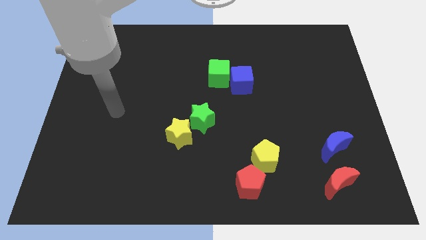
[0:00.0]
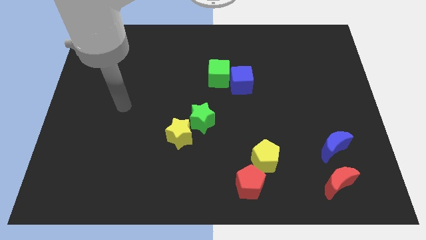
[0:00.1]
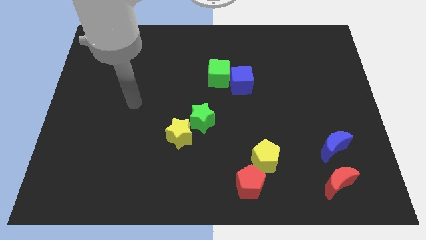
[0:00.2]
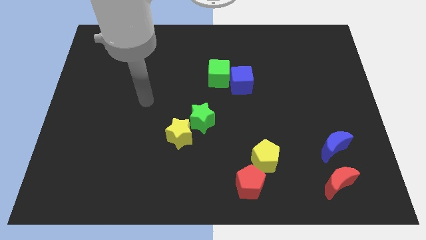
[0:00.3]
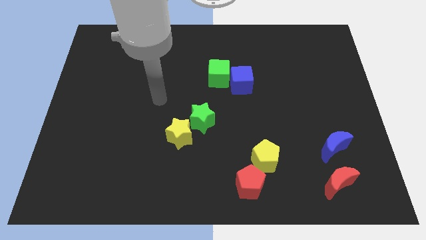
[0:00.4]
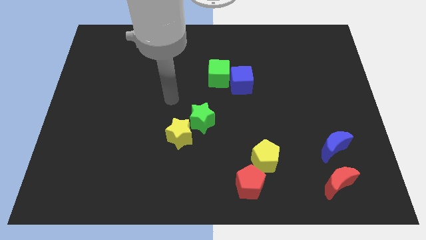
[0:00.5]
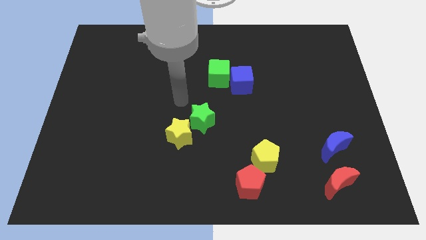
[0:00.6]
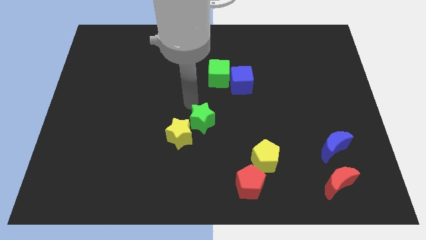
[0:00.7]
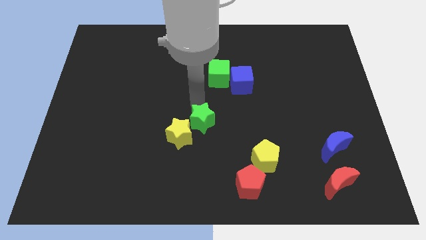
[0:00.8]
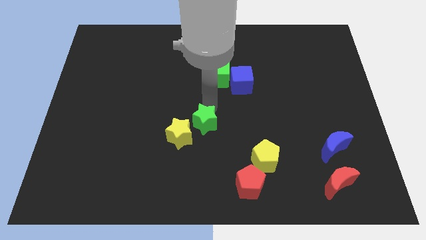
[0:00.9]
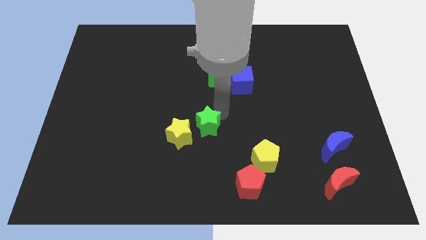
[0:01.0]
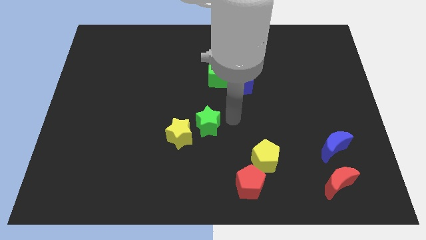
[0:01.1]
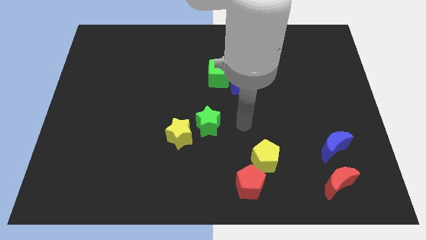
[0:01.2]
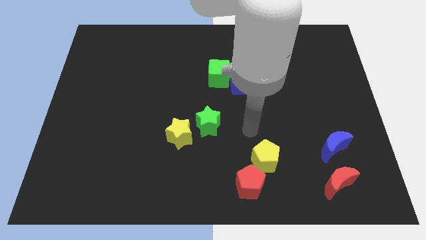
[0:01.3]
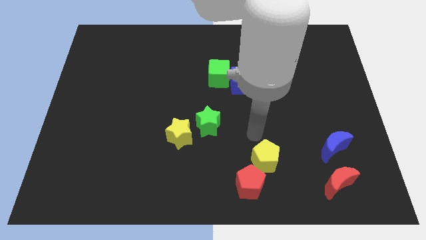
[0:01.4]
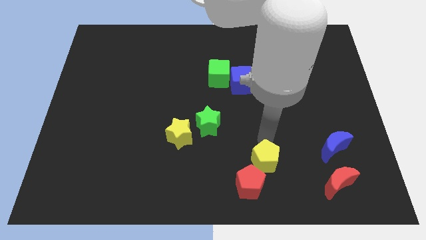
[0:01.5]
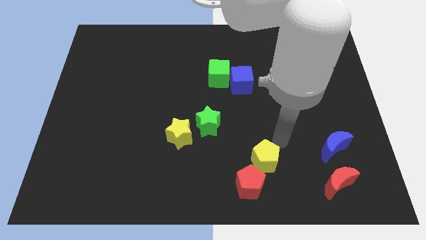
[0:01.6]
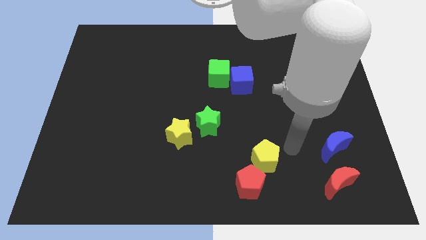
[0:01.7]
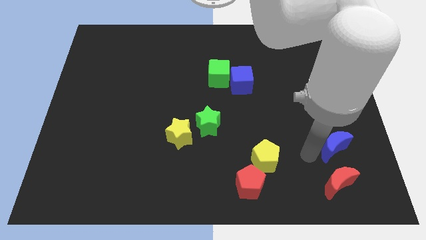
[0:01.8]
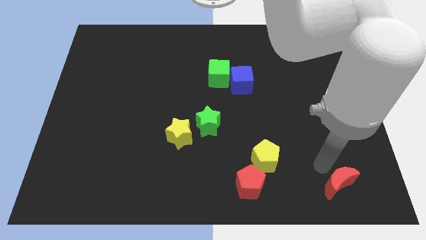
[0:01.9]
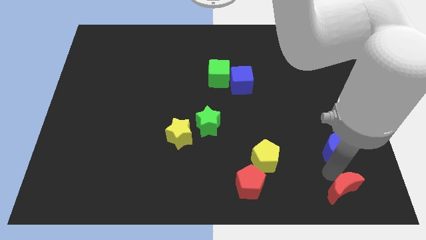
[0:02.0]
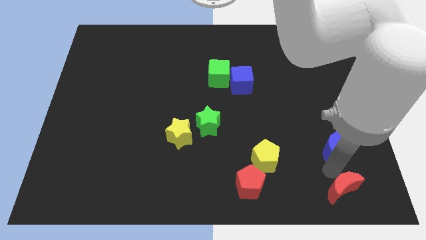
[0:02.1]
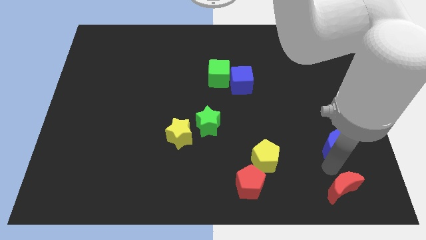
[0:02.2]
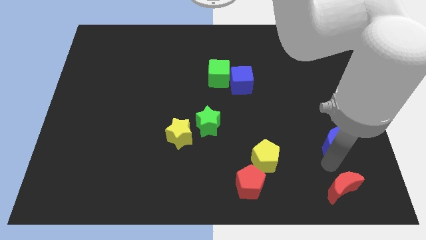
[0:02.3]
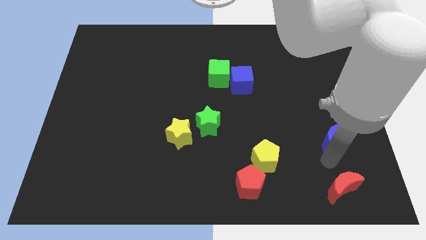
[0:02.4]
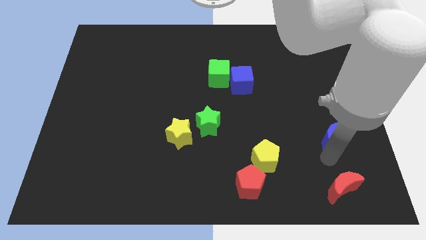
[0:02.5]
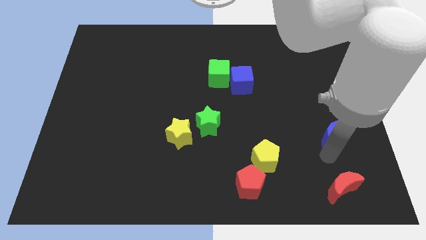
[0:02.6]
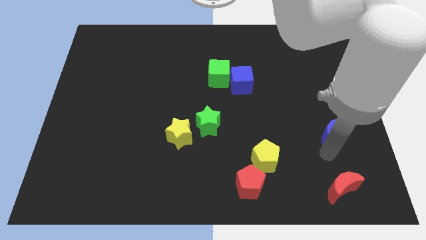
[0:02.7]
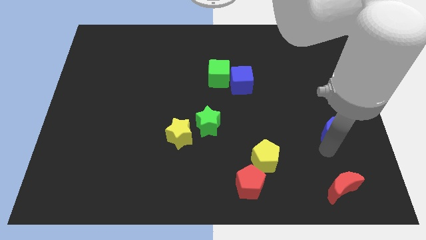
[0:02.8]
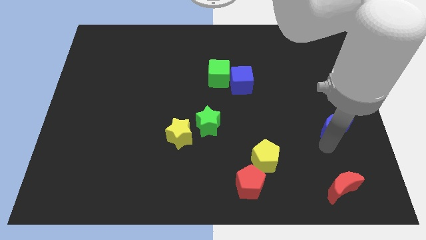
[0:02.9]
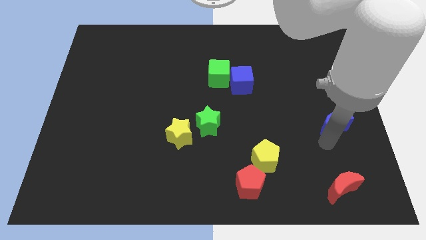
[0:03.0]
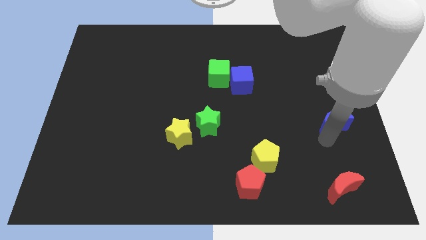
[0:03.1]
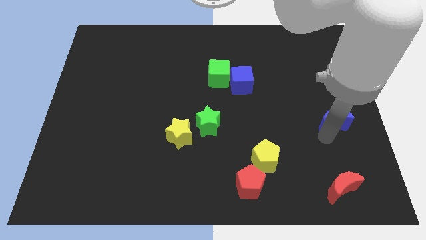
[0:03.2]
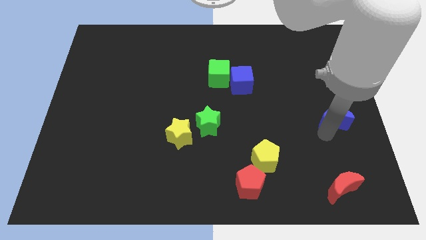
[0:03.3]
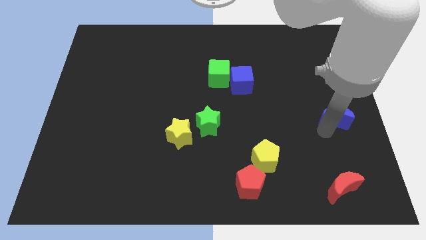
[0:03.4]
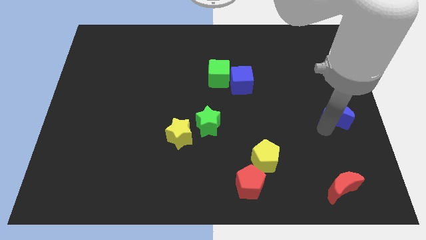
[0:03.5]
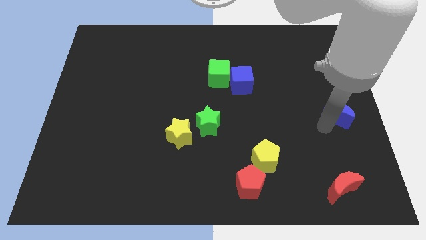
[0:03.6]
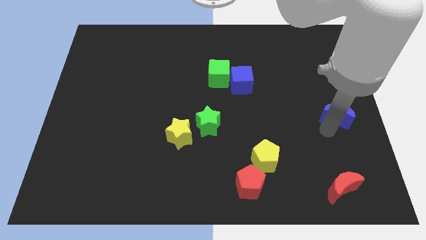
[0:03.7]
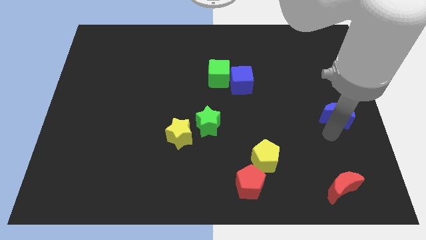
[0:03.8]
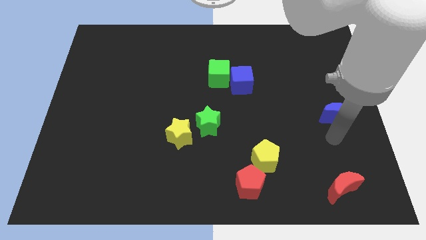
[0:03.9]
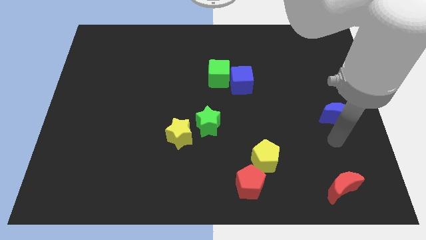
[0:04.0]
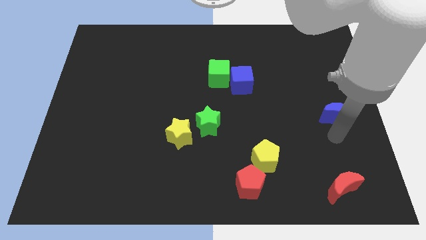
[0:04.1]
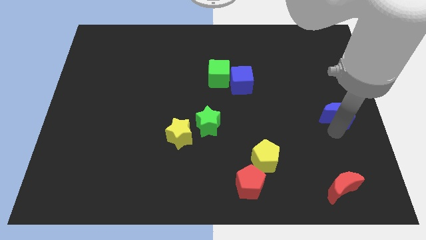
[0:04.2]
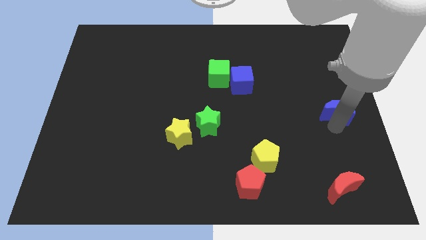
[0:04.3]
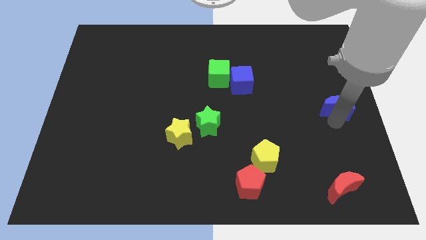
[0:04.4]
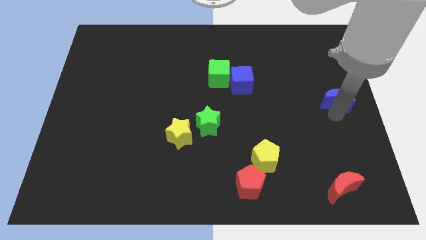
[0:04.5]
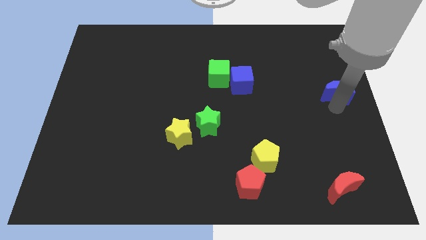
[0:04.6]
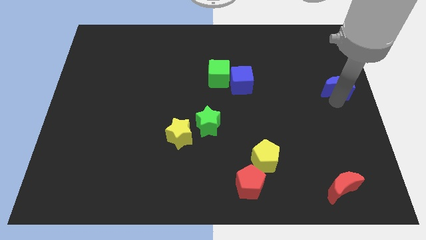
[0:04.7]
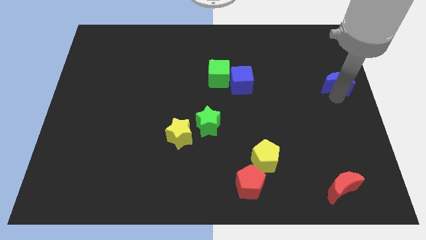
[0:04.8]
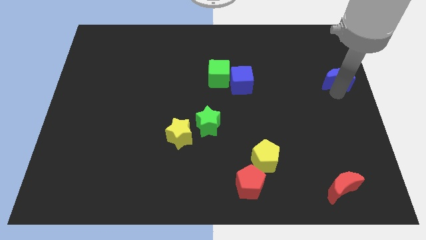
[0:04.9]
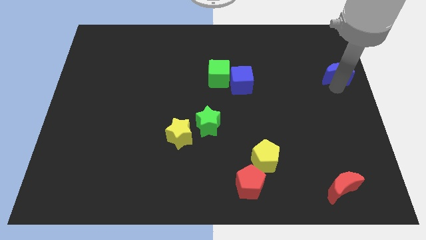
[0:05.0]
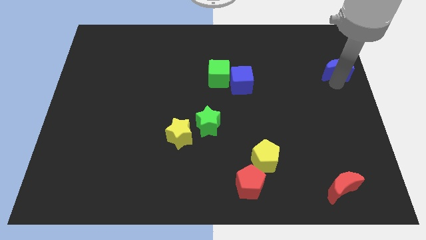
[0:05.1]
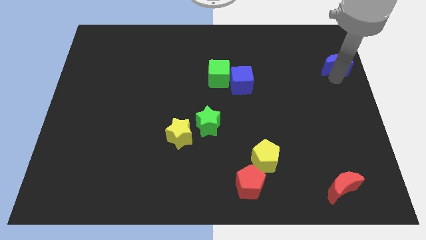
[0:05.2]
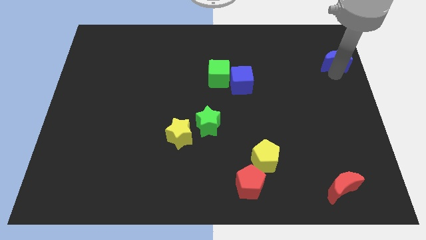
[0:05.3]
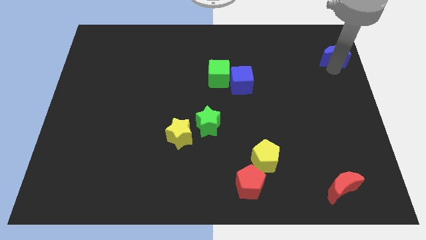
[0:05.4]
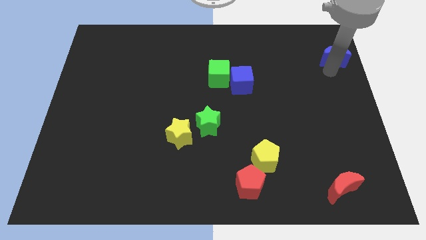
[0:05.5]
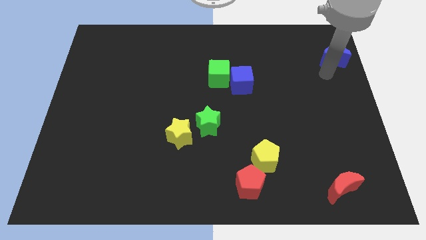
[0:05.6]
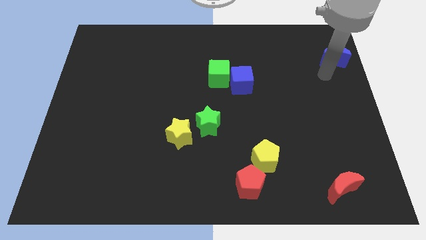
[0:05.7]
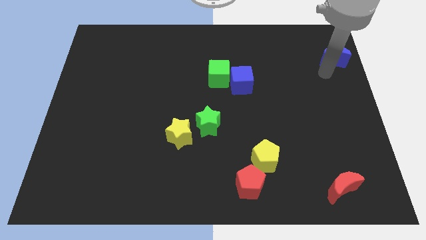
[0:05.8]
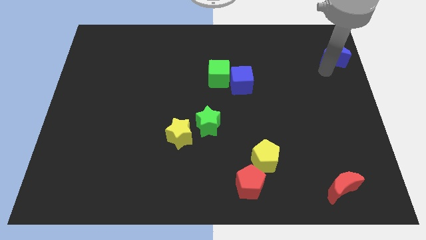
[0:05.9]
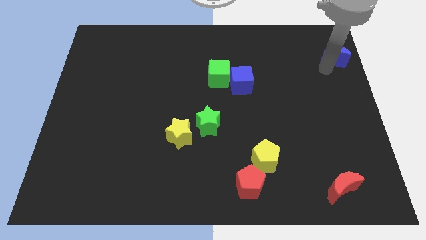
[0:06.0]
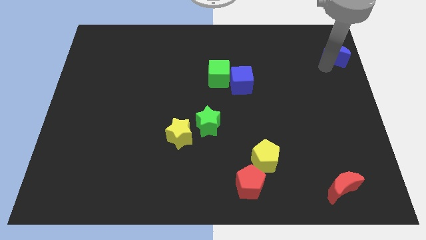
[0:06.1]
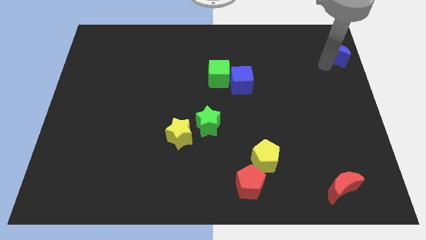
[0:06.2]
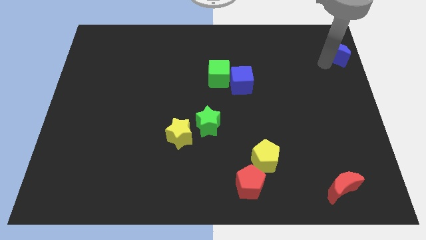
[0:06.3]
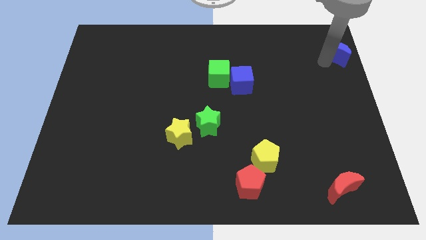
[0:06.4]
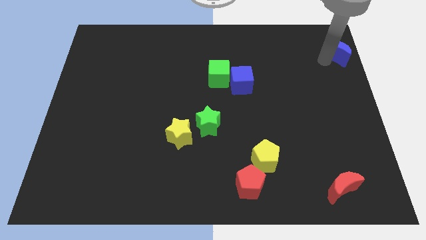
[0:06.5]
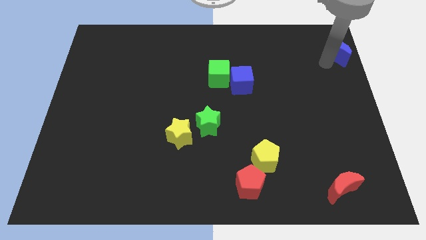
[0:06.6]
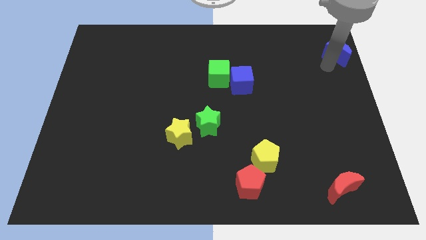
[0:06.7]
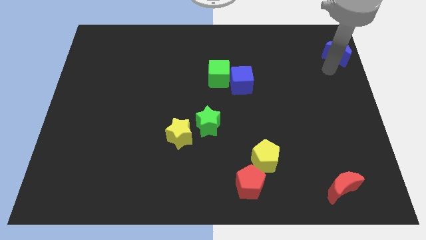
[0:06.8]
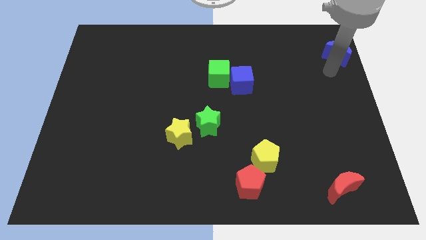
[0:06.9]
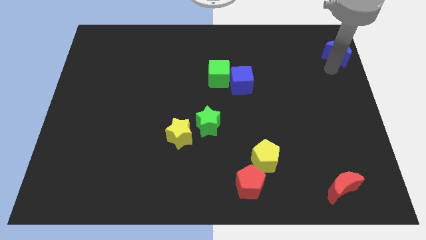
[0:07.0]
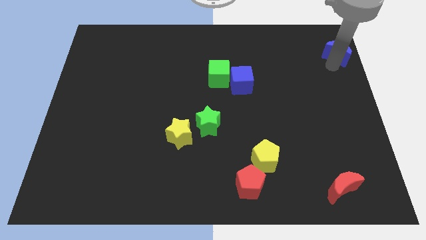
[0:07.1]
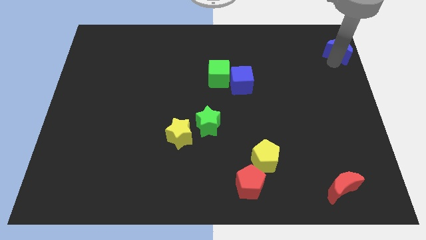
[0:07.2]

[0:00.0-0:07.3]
slide the blue moon to the top right of the board
